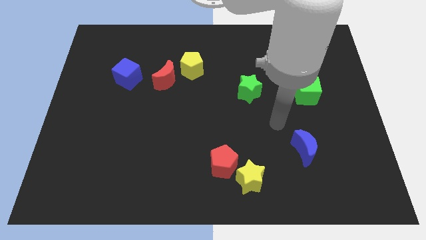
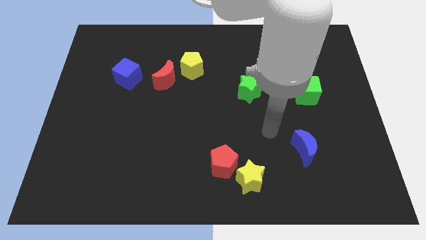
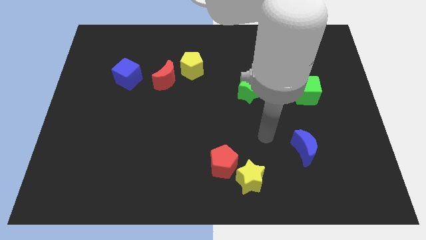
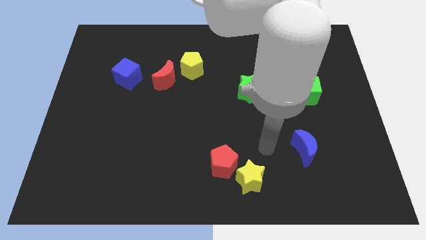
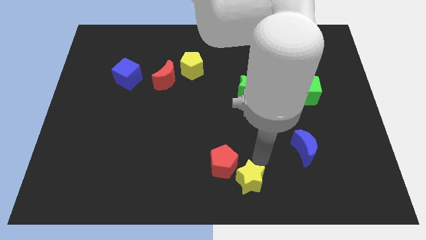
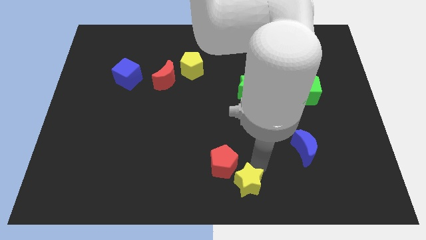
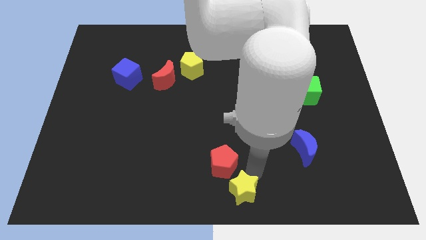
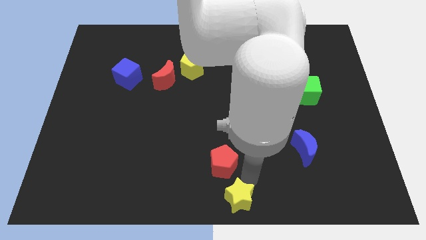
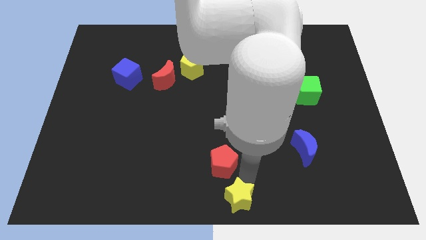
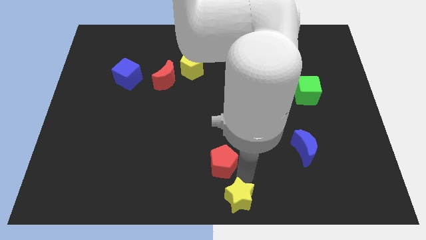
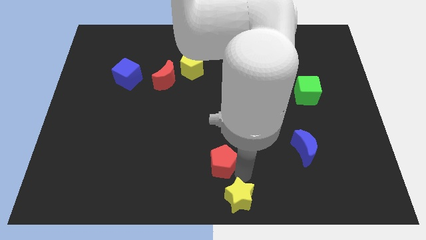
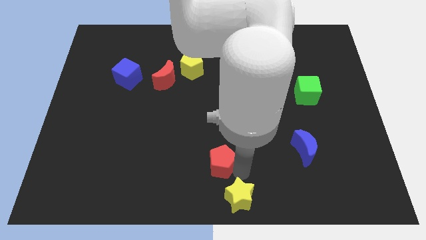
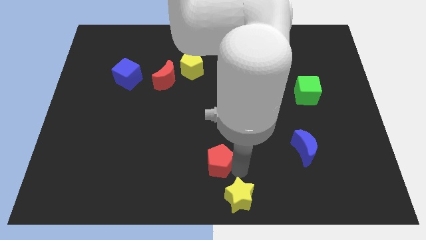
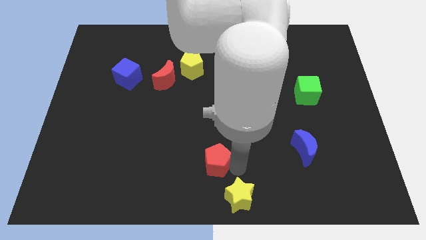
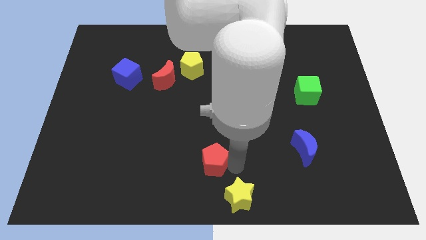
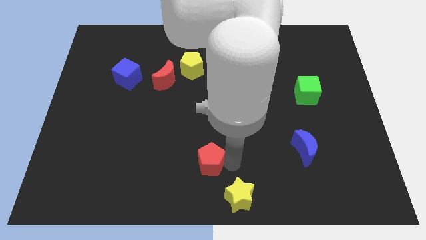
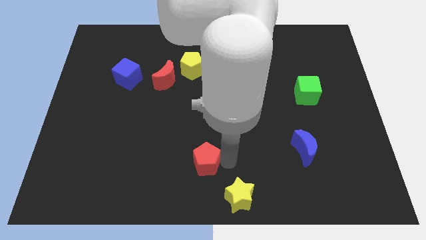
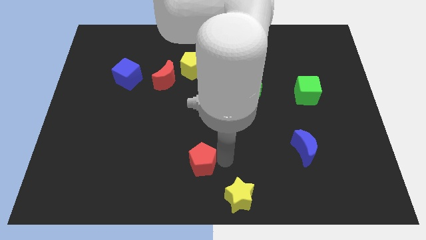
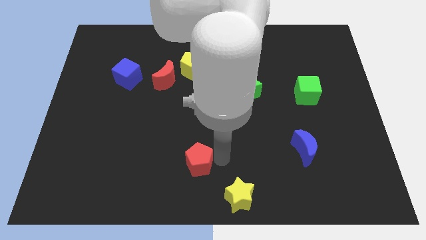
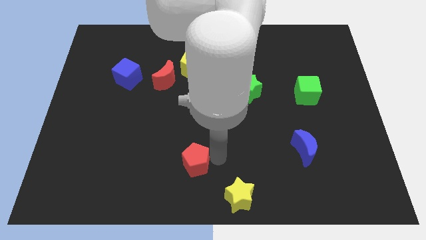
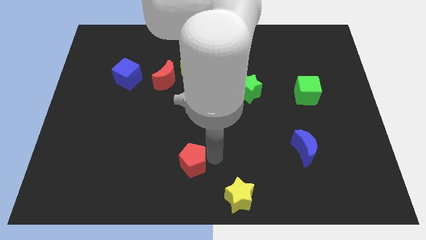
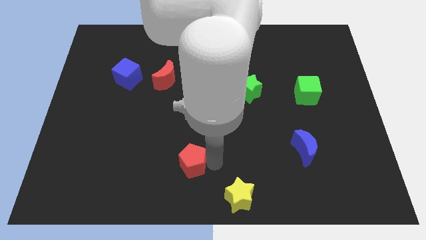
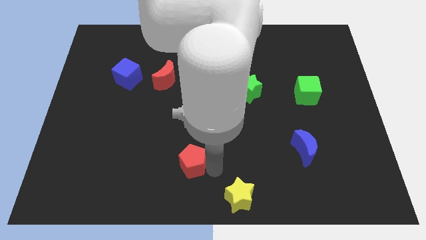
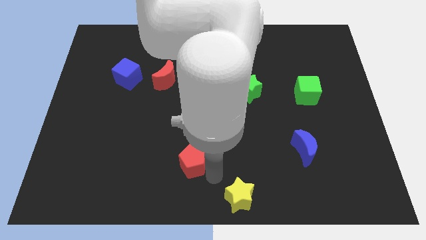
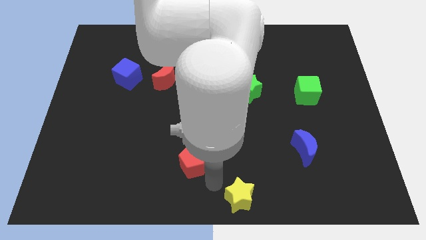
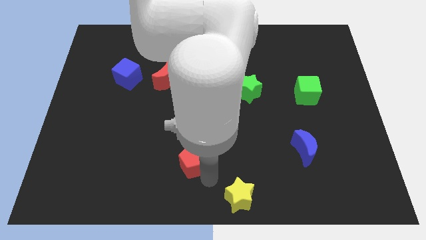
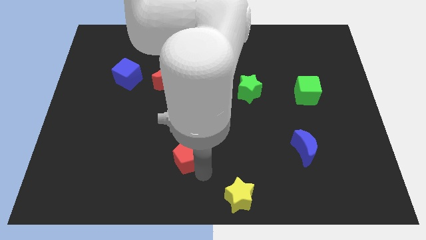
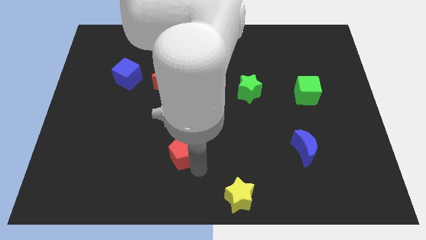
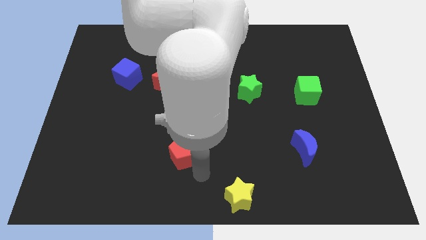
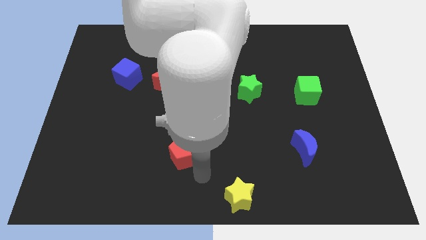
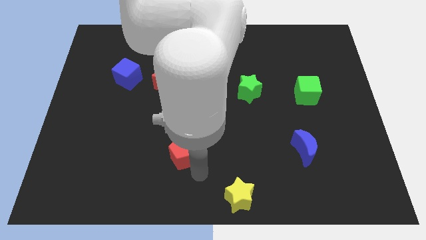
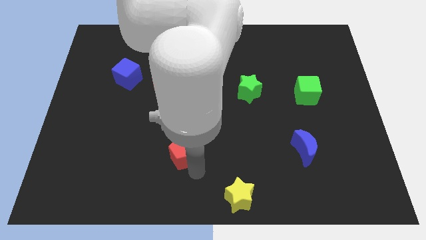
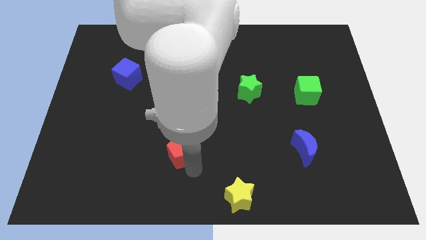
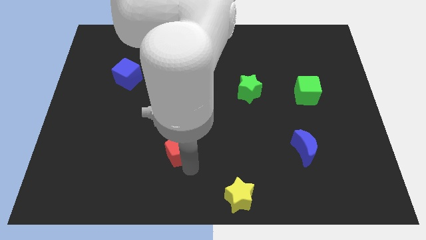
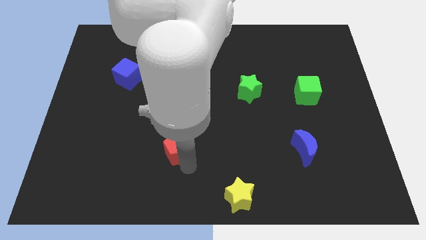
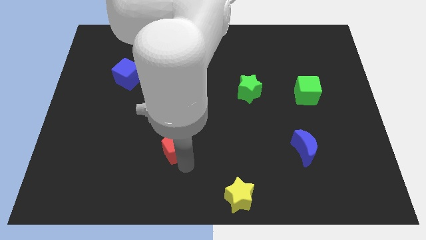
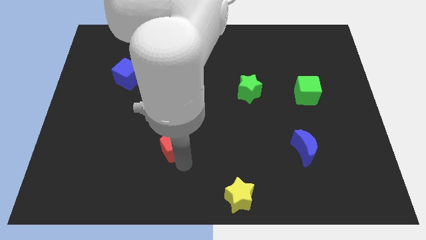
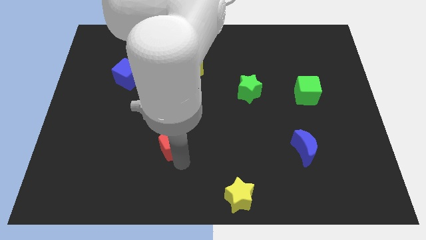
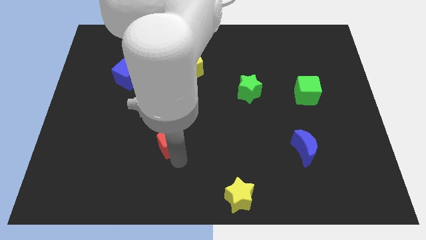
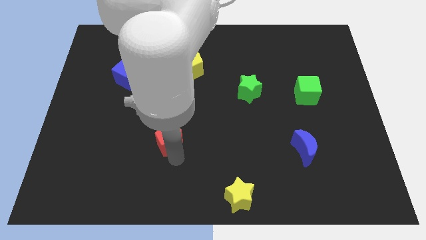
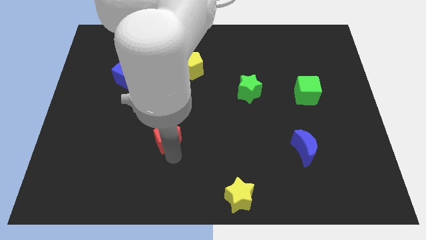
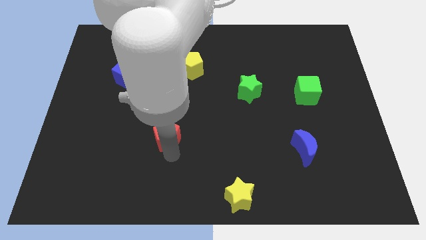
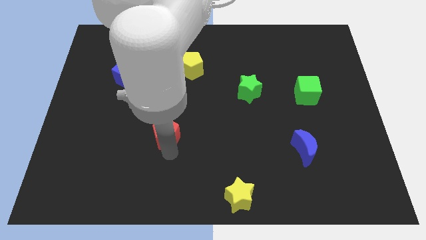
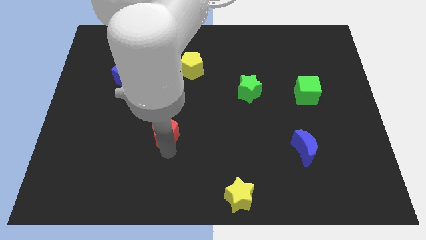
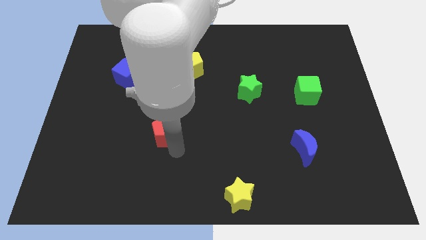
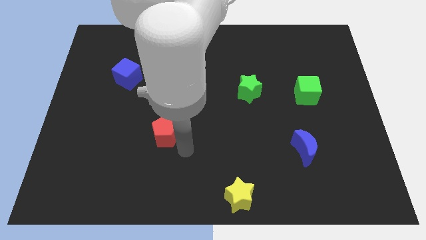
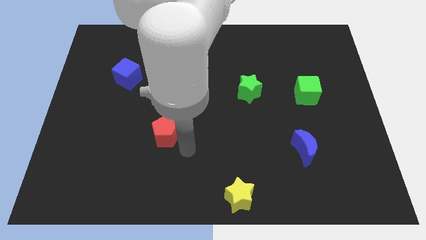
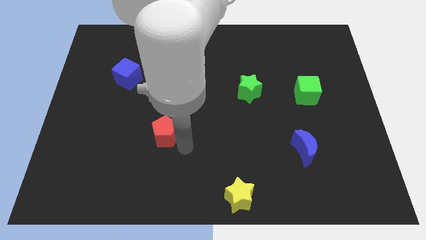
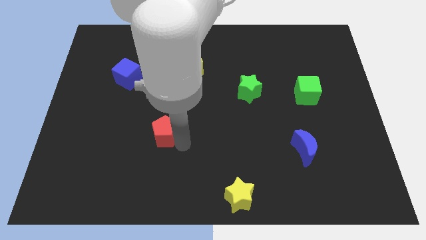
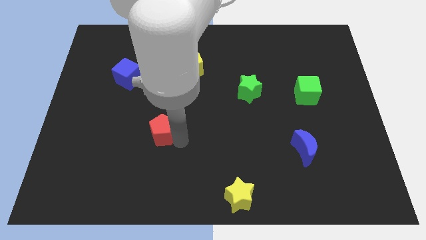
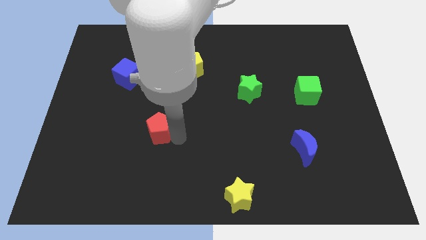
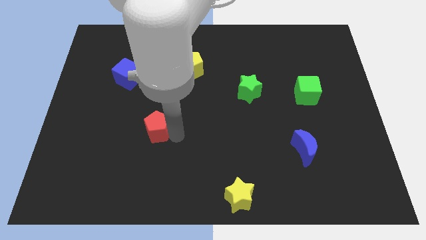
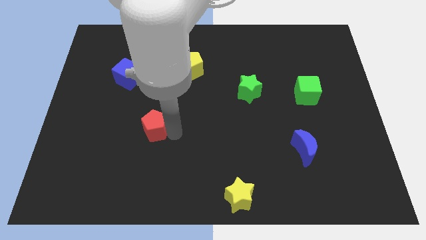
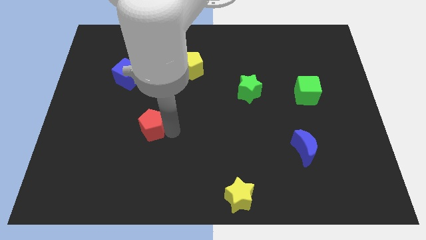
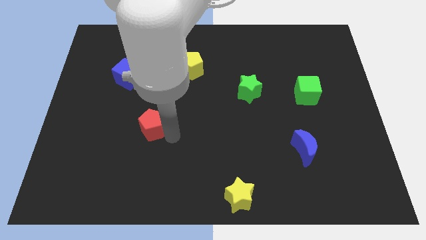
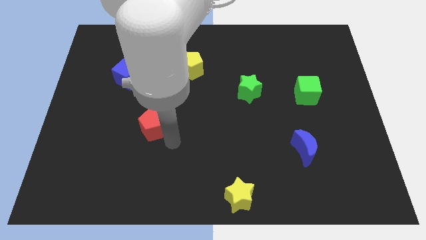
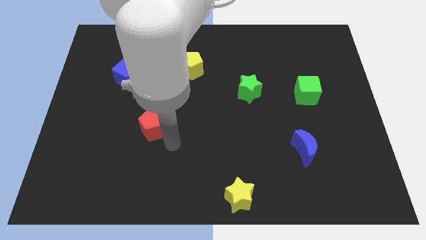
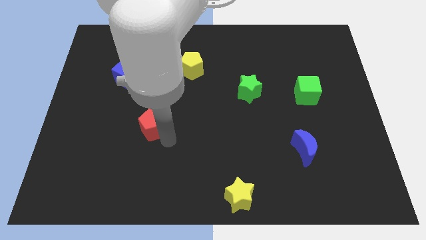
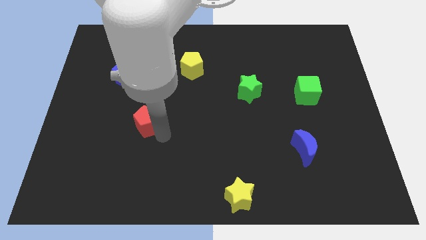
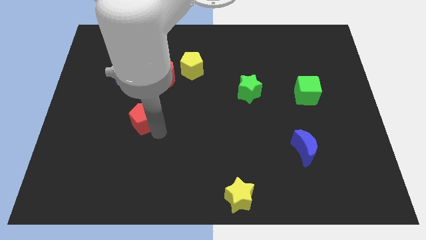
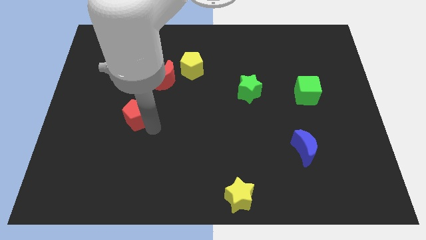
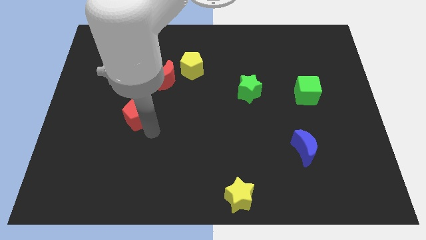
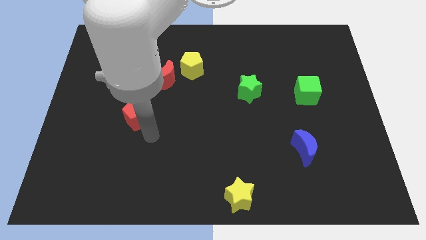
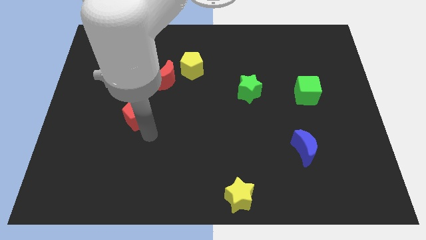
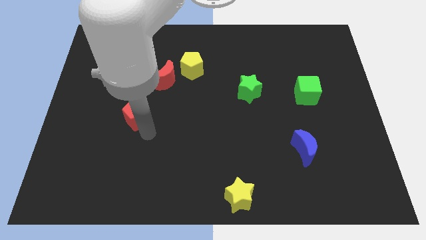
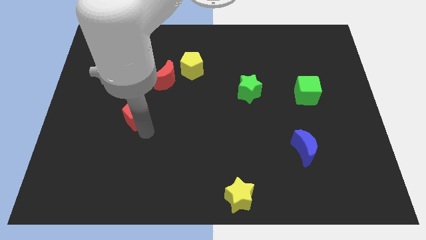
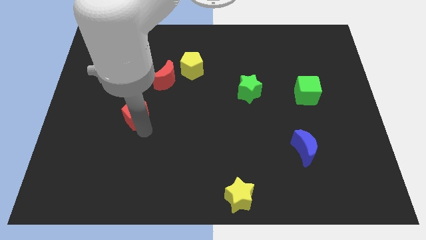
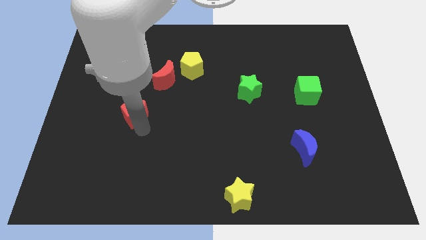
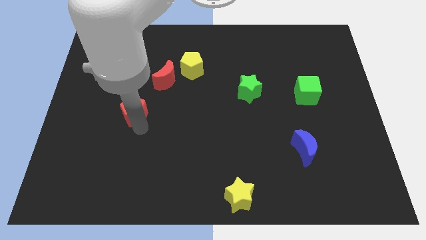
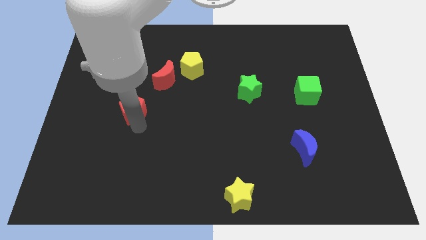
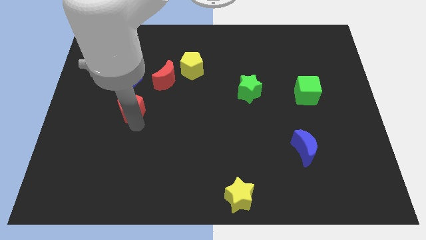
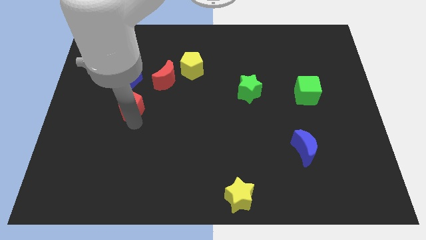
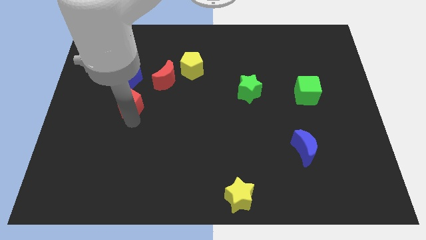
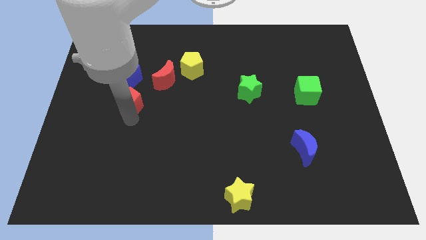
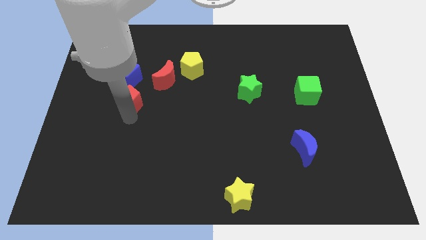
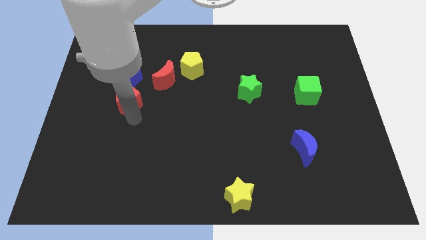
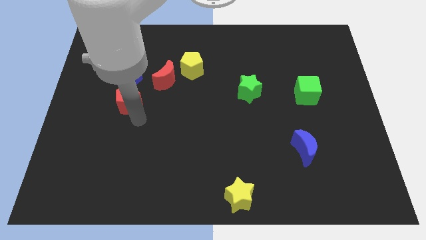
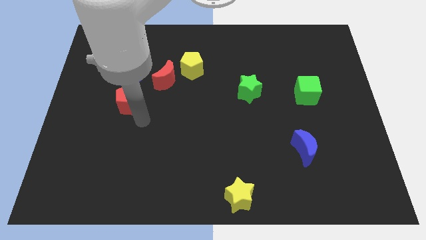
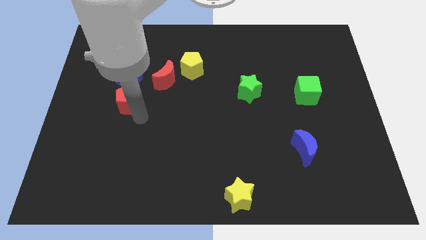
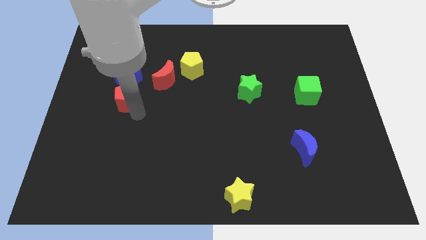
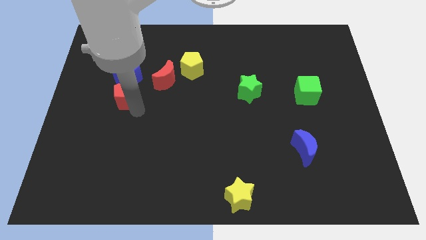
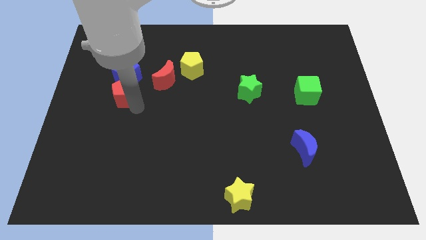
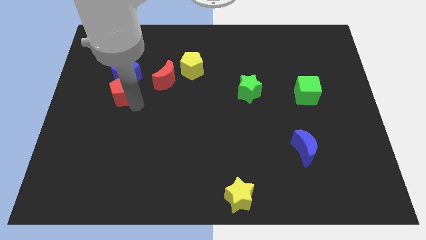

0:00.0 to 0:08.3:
move the red pentagon just left of the red moon
